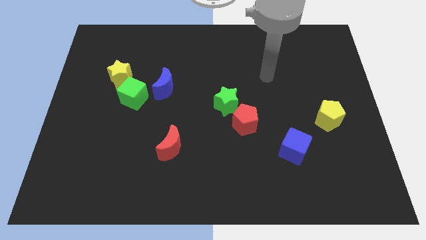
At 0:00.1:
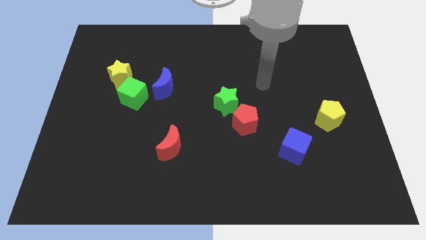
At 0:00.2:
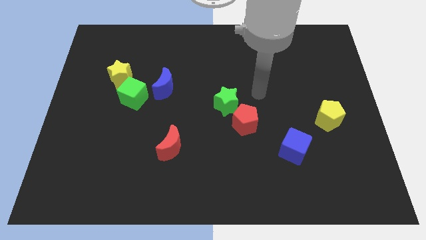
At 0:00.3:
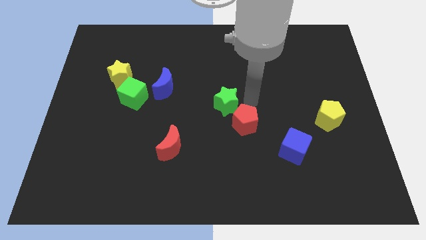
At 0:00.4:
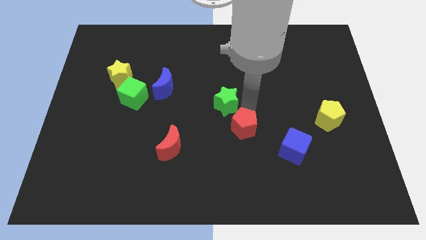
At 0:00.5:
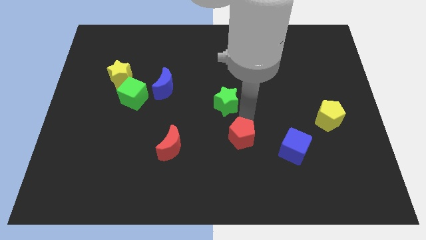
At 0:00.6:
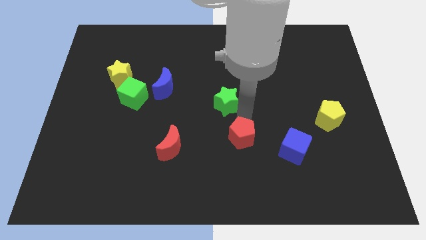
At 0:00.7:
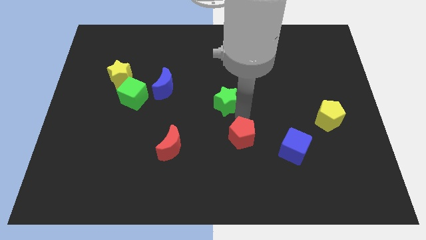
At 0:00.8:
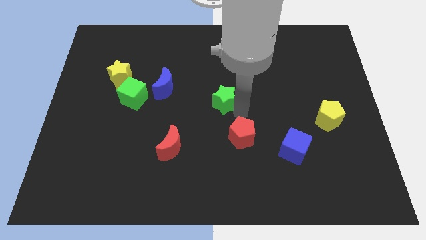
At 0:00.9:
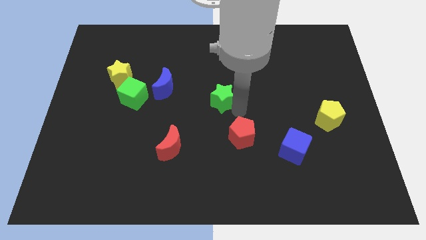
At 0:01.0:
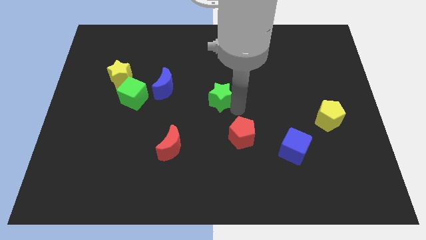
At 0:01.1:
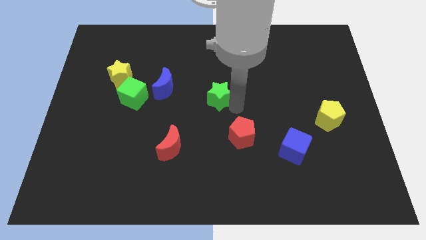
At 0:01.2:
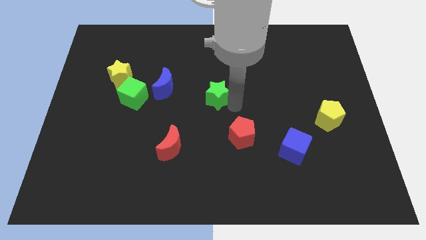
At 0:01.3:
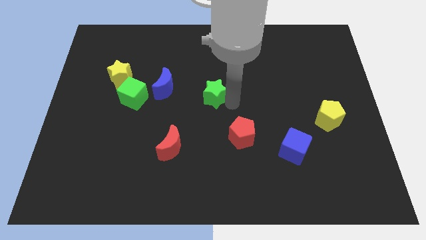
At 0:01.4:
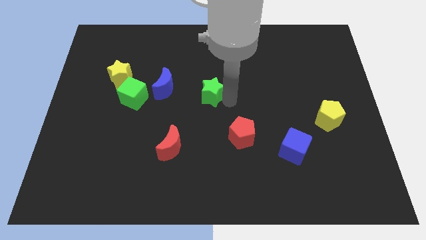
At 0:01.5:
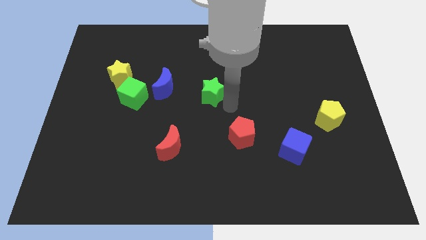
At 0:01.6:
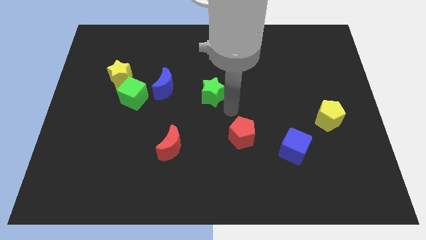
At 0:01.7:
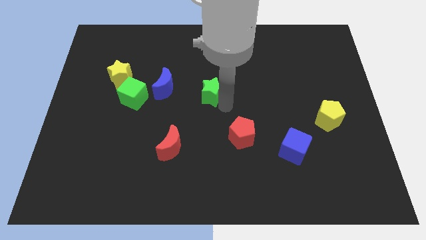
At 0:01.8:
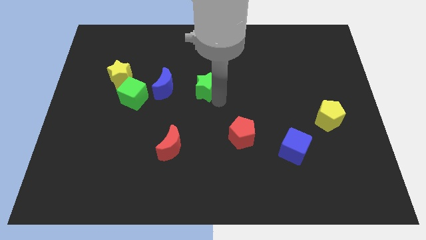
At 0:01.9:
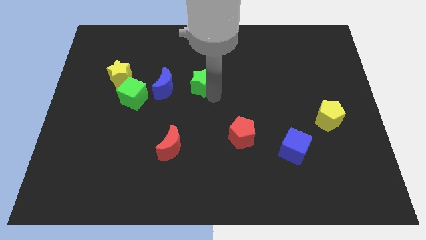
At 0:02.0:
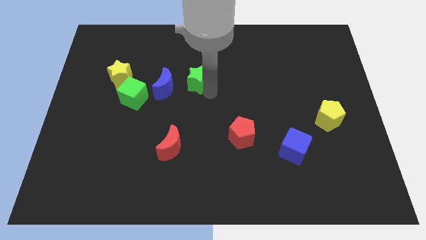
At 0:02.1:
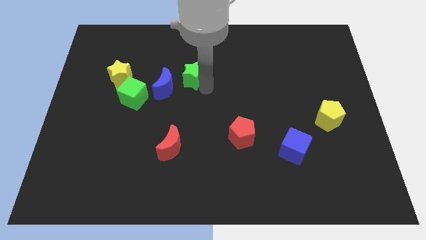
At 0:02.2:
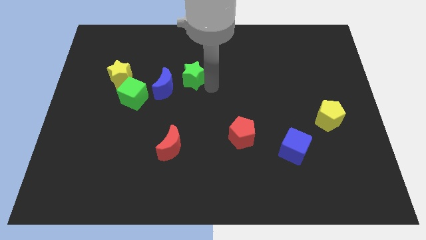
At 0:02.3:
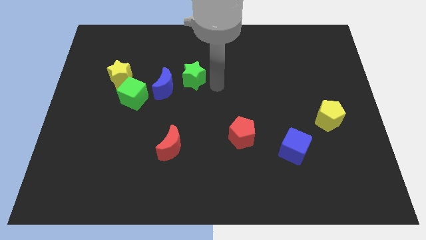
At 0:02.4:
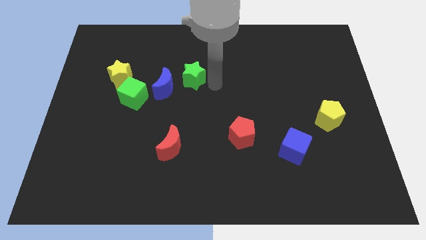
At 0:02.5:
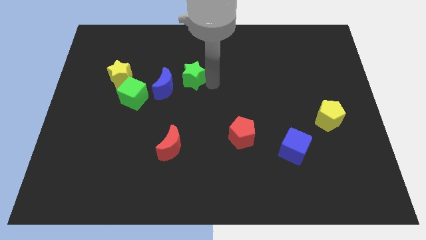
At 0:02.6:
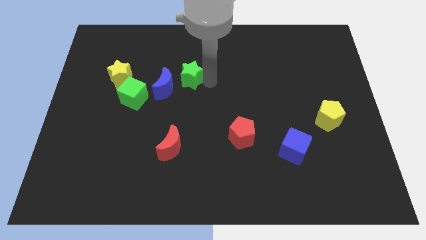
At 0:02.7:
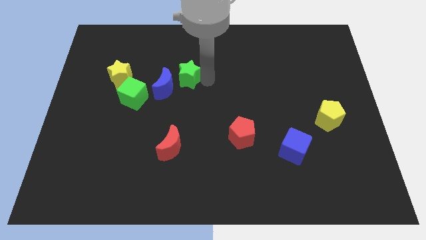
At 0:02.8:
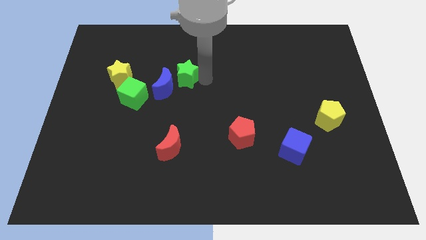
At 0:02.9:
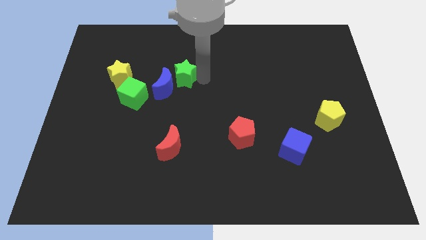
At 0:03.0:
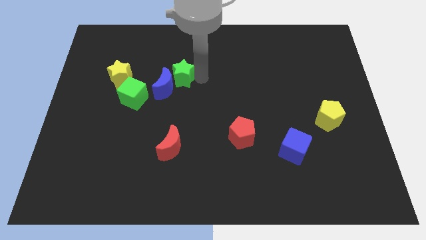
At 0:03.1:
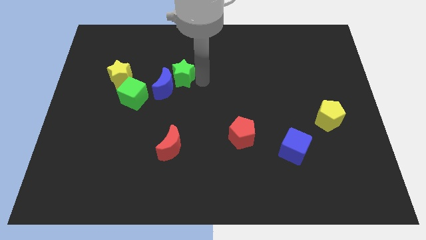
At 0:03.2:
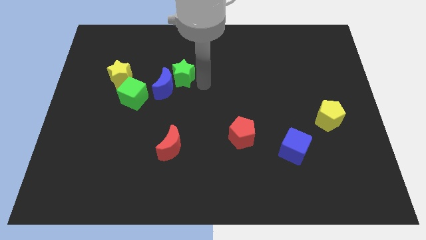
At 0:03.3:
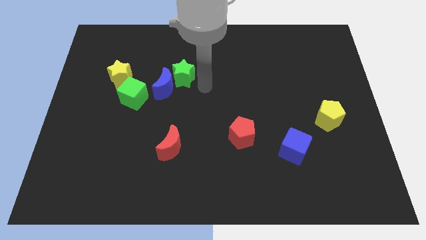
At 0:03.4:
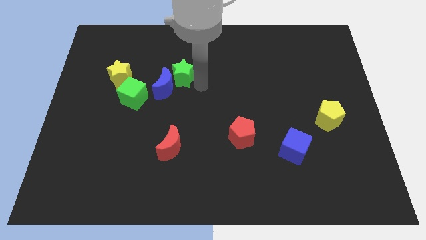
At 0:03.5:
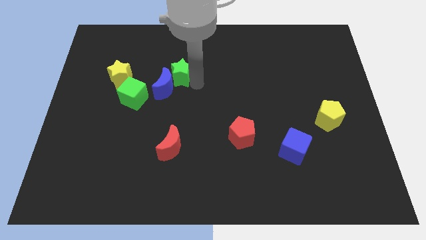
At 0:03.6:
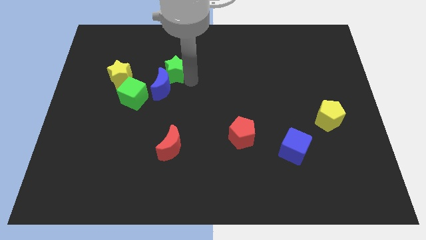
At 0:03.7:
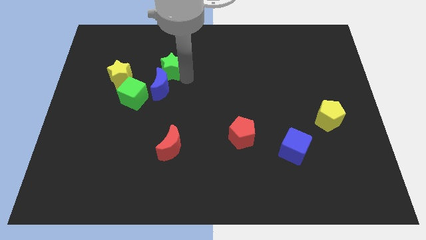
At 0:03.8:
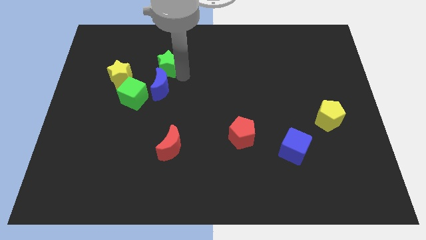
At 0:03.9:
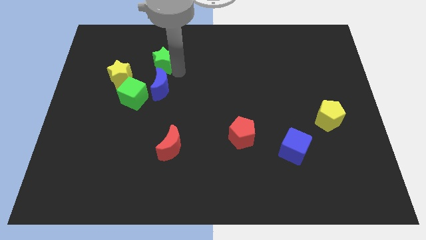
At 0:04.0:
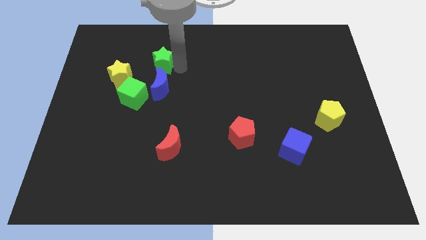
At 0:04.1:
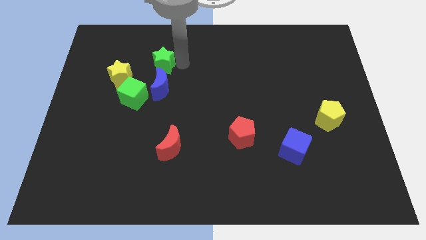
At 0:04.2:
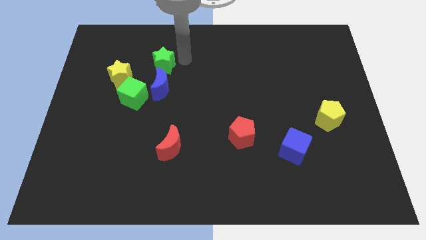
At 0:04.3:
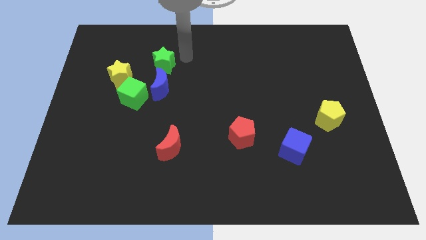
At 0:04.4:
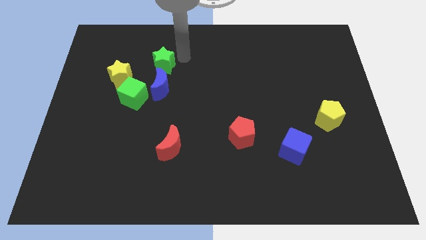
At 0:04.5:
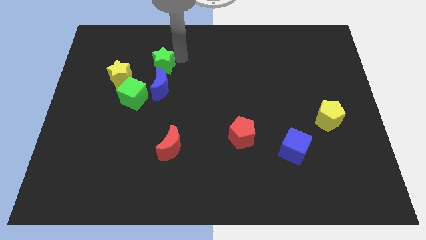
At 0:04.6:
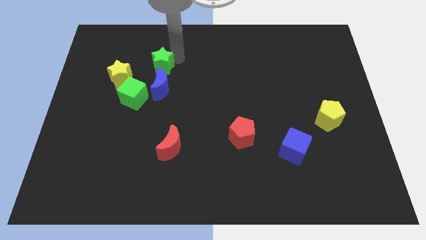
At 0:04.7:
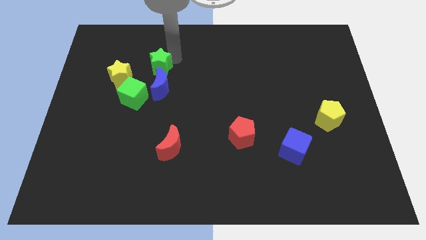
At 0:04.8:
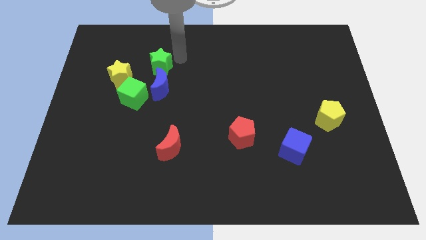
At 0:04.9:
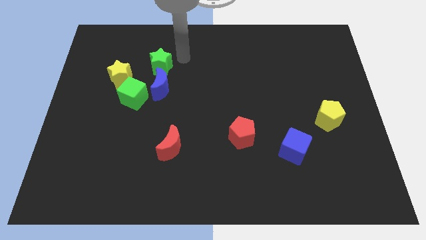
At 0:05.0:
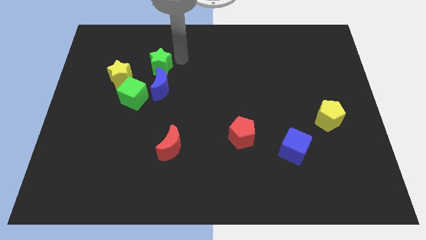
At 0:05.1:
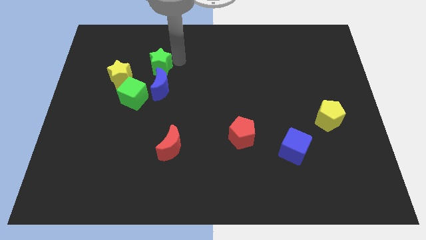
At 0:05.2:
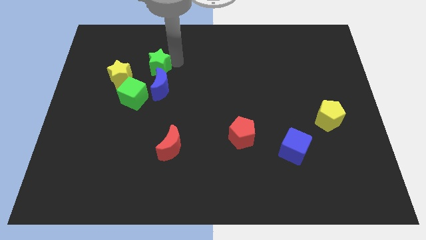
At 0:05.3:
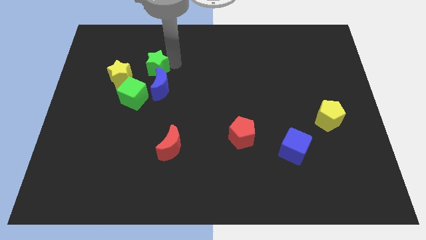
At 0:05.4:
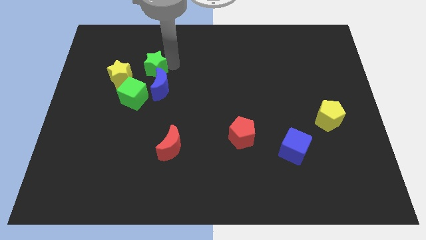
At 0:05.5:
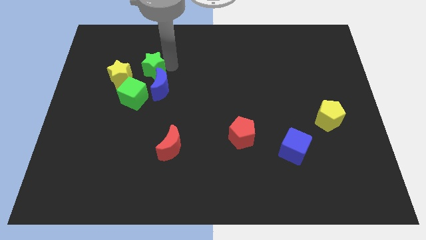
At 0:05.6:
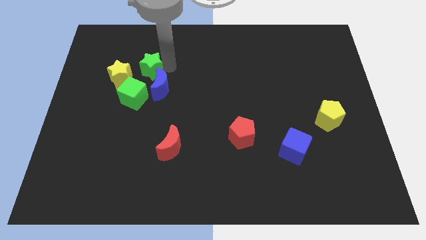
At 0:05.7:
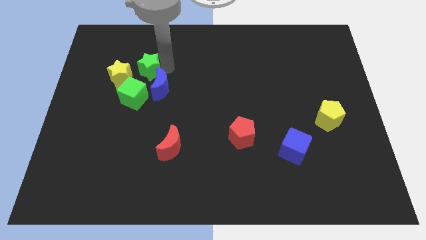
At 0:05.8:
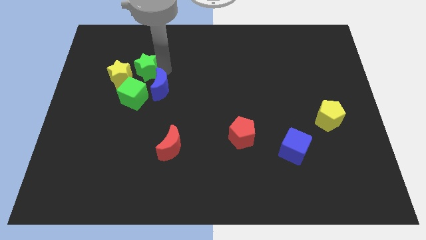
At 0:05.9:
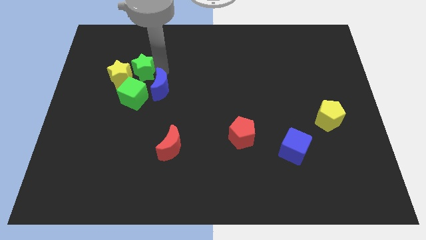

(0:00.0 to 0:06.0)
move the green star towards the yellow star

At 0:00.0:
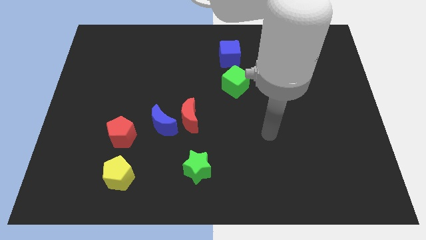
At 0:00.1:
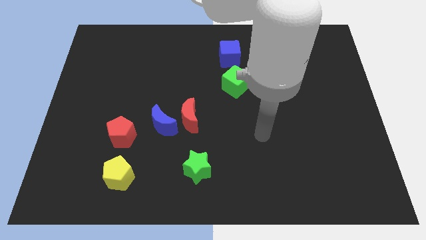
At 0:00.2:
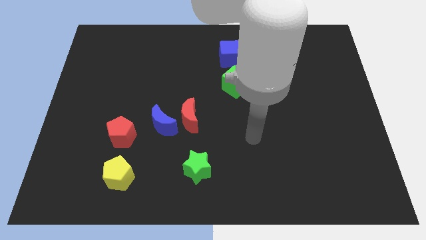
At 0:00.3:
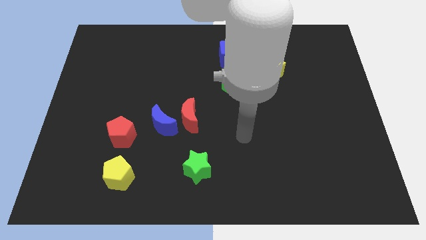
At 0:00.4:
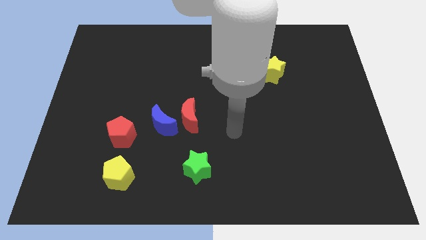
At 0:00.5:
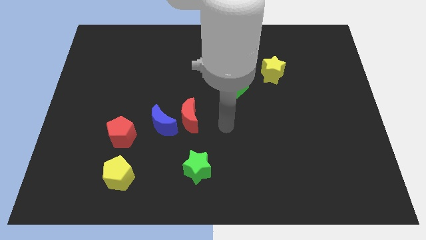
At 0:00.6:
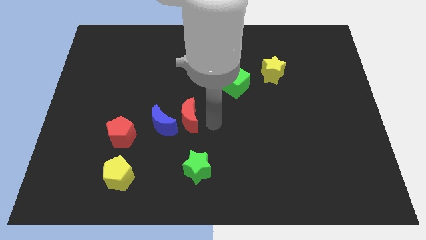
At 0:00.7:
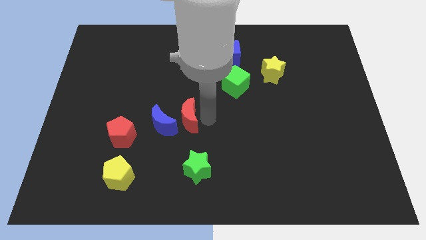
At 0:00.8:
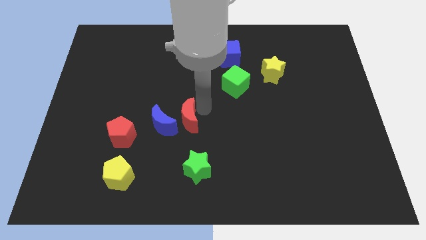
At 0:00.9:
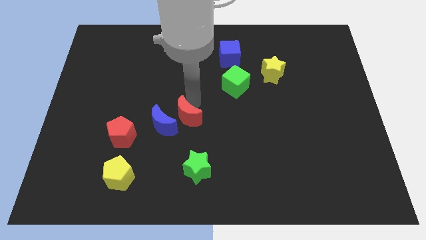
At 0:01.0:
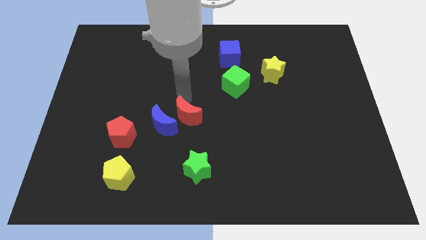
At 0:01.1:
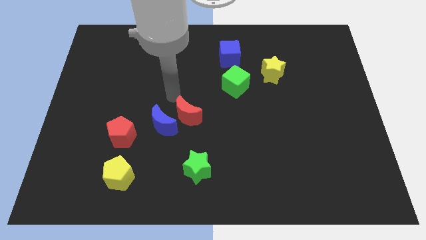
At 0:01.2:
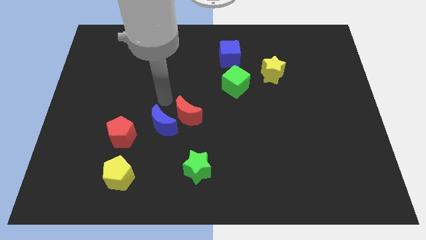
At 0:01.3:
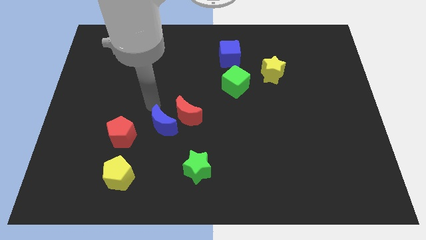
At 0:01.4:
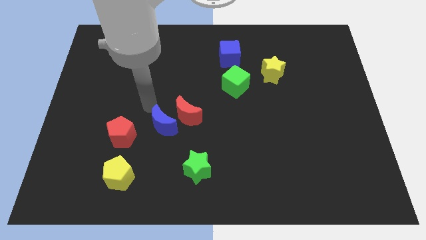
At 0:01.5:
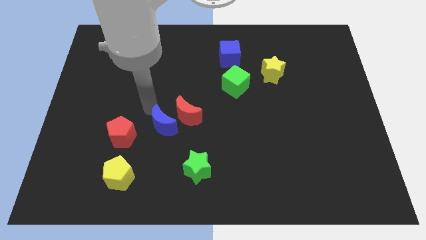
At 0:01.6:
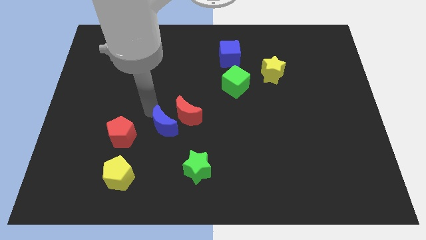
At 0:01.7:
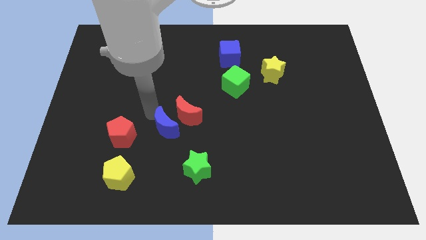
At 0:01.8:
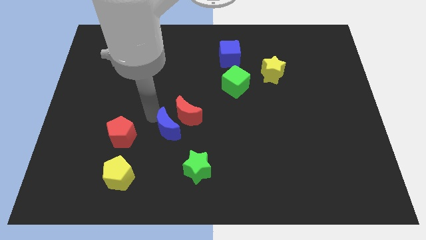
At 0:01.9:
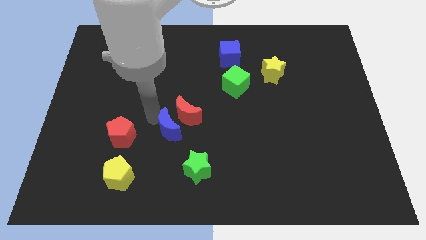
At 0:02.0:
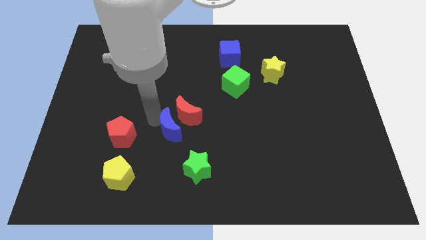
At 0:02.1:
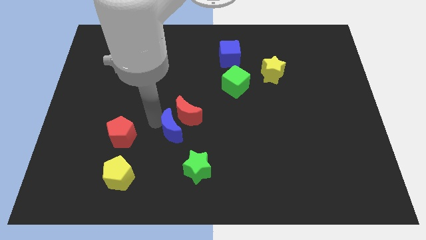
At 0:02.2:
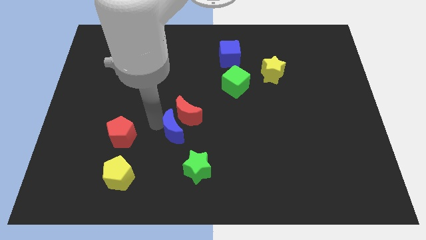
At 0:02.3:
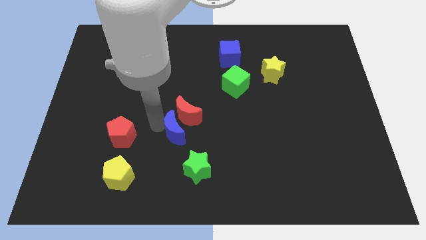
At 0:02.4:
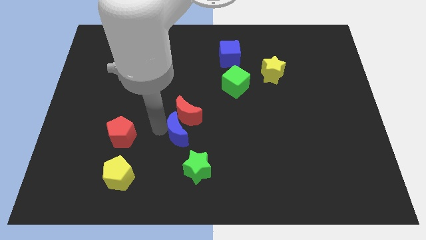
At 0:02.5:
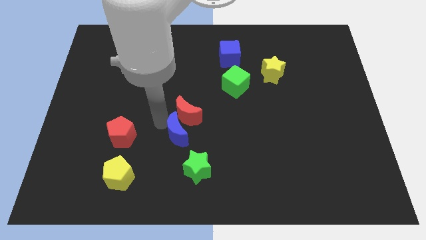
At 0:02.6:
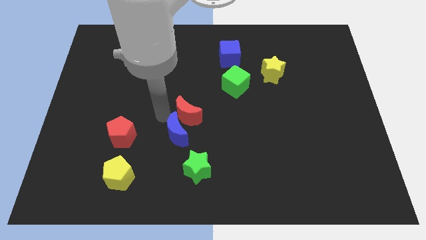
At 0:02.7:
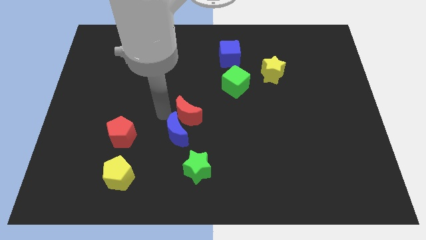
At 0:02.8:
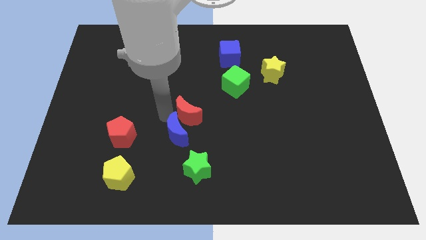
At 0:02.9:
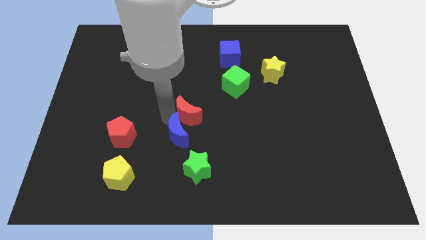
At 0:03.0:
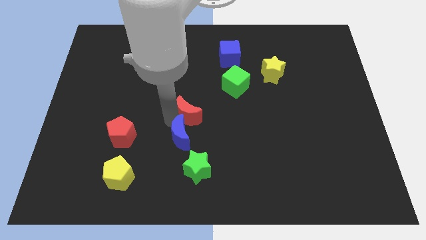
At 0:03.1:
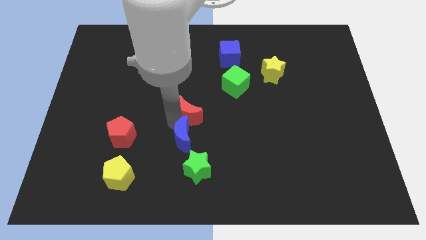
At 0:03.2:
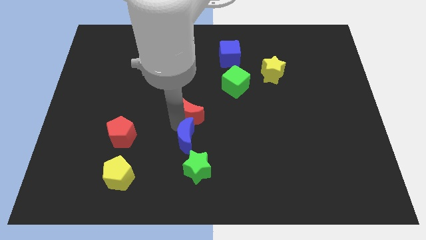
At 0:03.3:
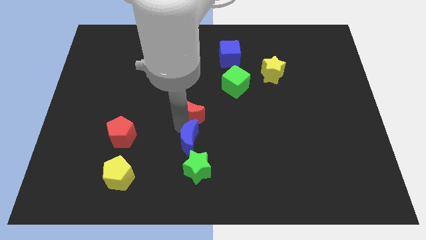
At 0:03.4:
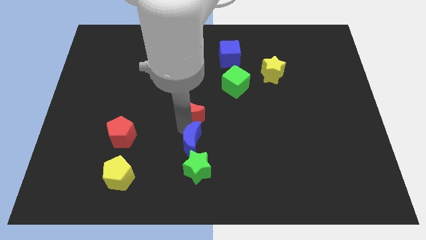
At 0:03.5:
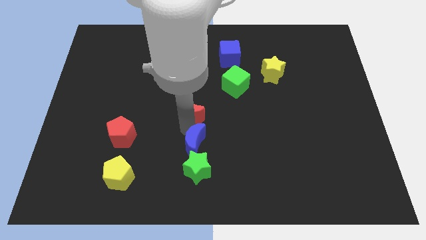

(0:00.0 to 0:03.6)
slide the blue moon to the green star
